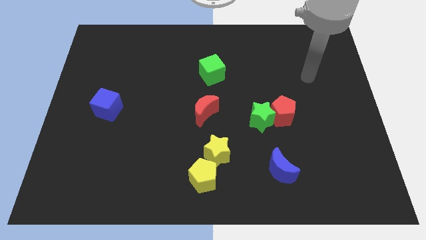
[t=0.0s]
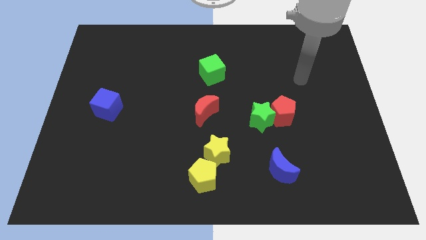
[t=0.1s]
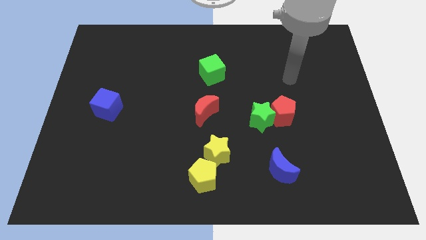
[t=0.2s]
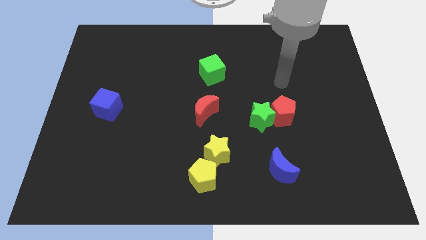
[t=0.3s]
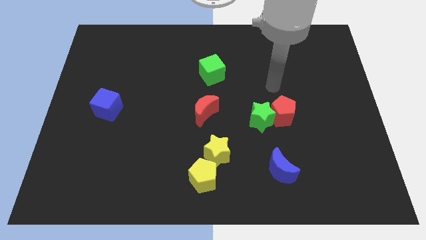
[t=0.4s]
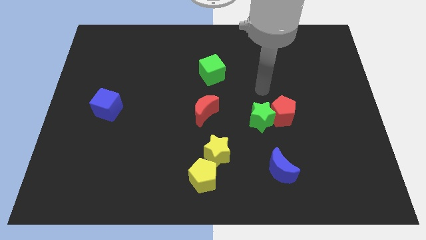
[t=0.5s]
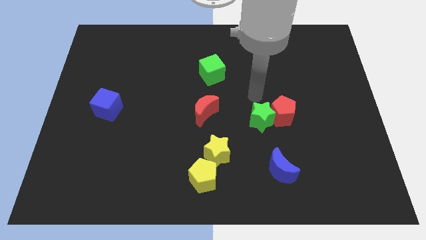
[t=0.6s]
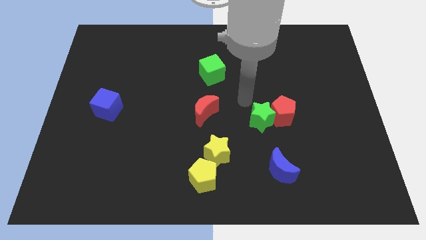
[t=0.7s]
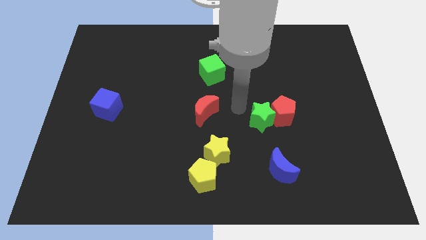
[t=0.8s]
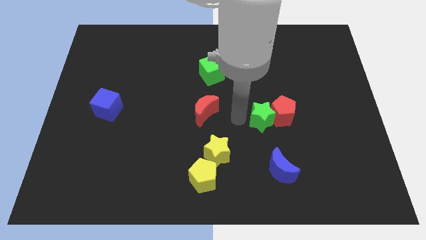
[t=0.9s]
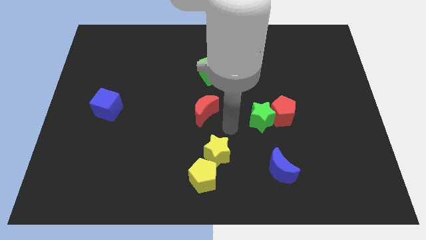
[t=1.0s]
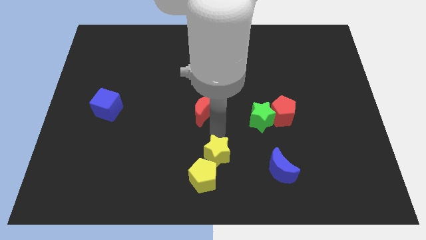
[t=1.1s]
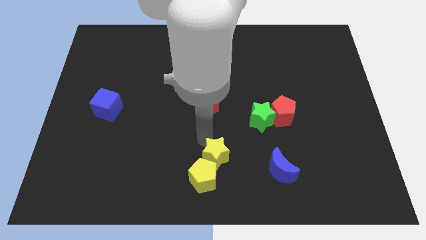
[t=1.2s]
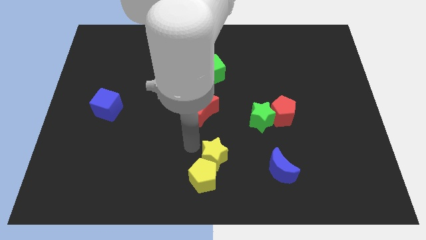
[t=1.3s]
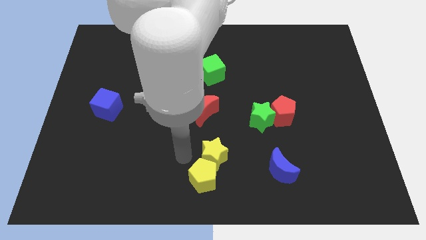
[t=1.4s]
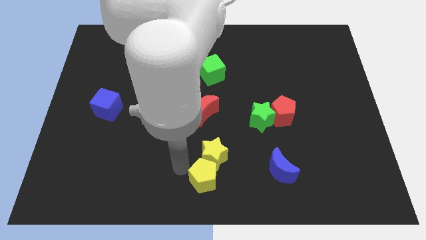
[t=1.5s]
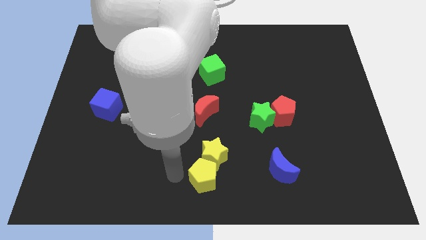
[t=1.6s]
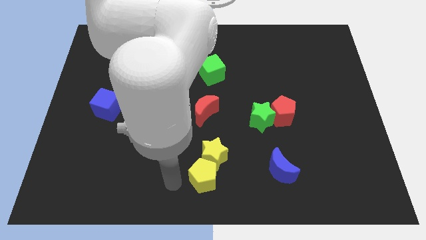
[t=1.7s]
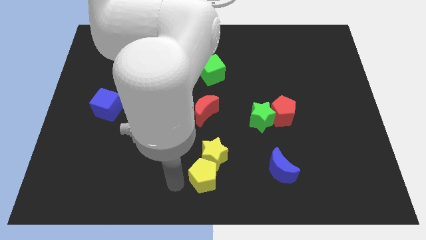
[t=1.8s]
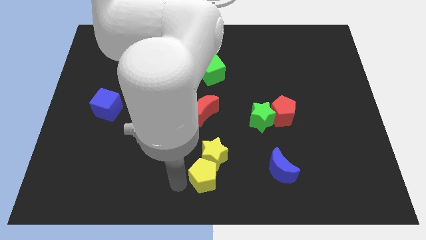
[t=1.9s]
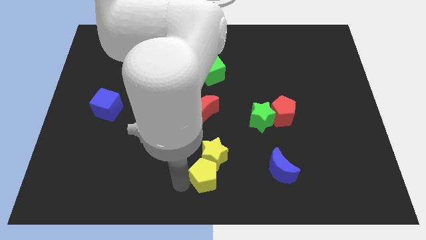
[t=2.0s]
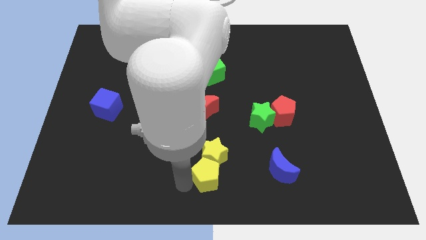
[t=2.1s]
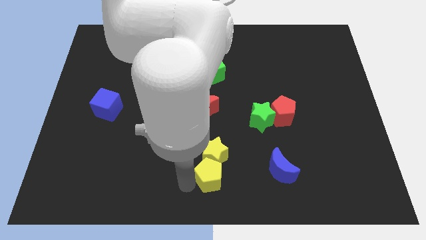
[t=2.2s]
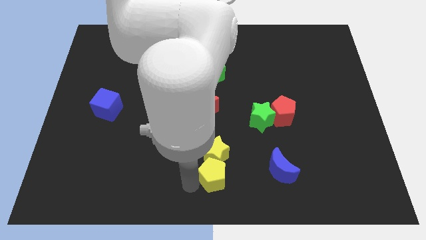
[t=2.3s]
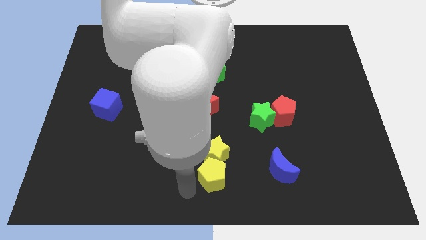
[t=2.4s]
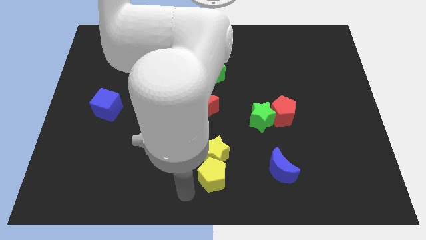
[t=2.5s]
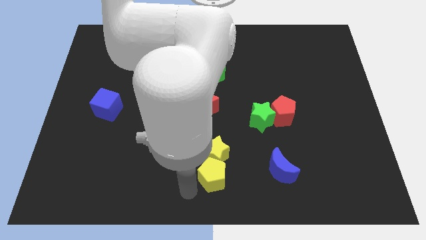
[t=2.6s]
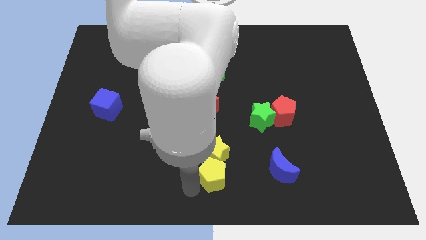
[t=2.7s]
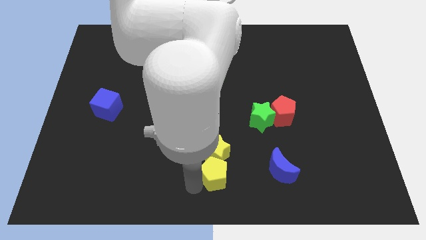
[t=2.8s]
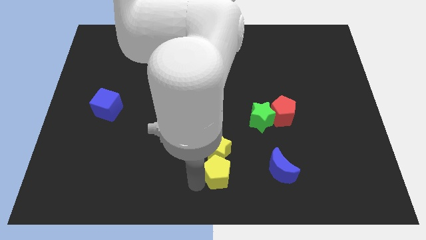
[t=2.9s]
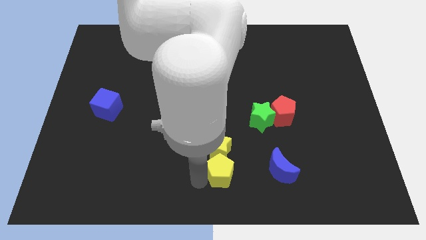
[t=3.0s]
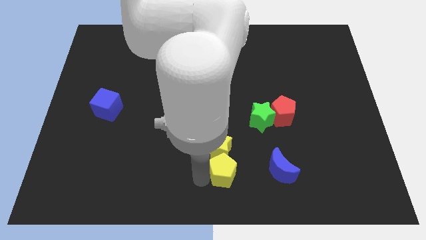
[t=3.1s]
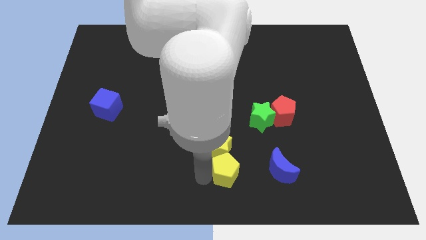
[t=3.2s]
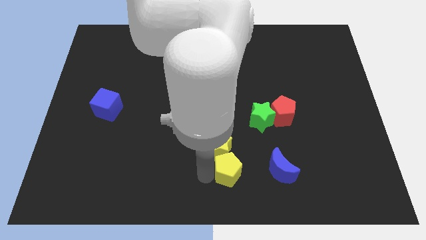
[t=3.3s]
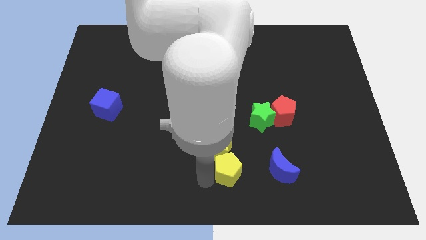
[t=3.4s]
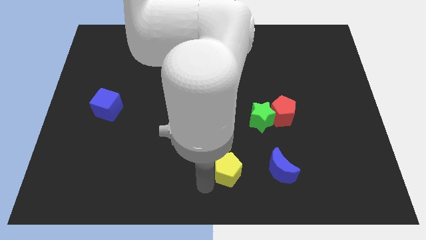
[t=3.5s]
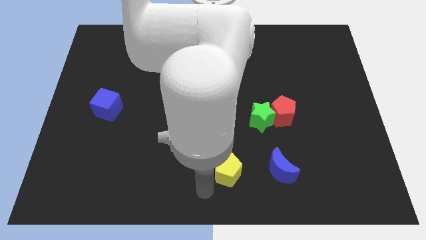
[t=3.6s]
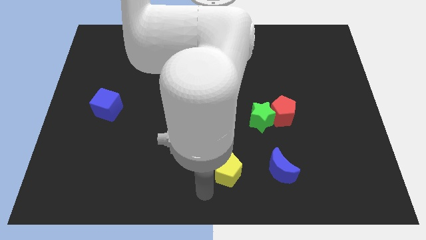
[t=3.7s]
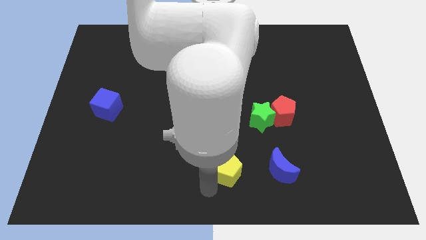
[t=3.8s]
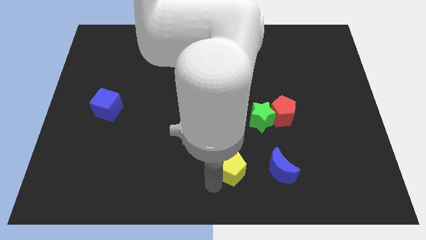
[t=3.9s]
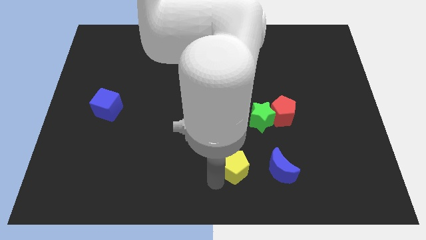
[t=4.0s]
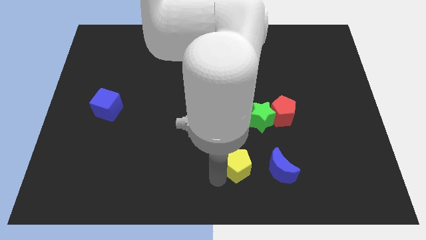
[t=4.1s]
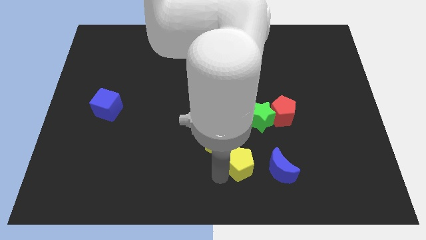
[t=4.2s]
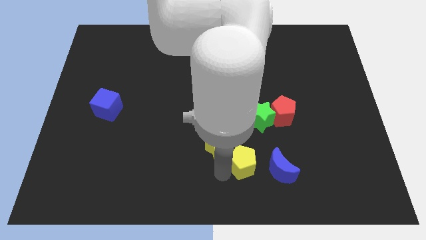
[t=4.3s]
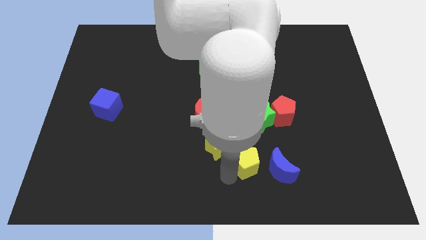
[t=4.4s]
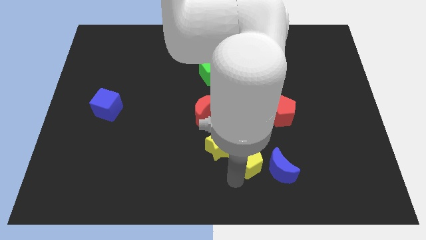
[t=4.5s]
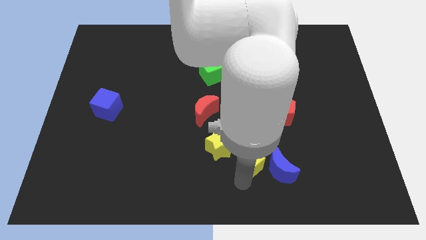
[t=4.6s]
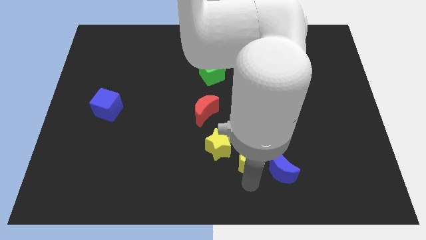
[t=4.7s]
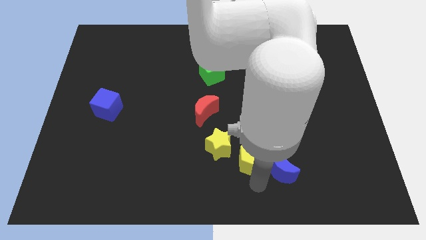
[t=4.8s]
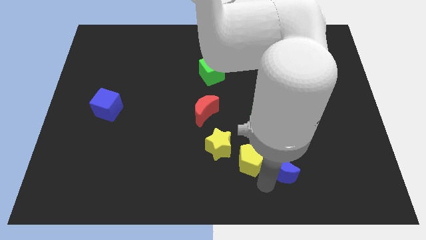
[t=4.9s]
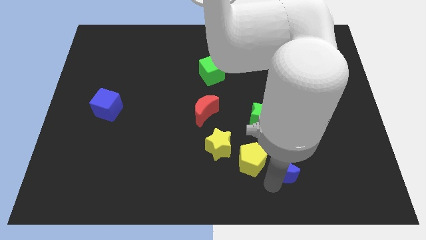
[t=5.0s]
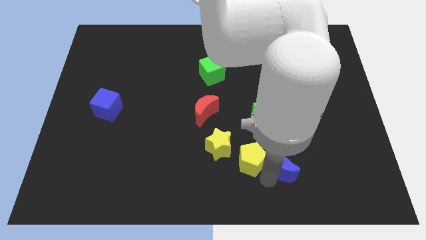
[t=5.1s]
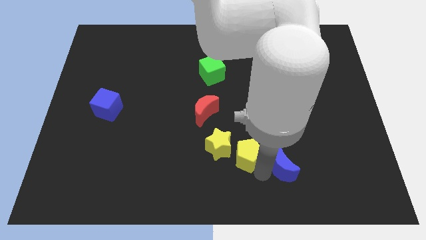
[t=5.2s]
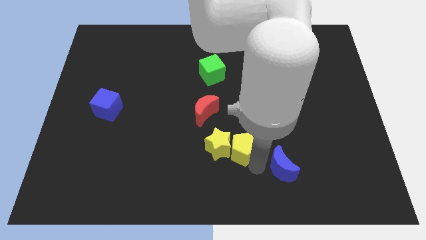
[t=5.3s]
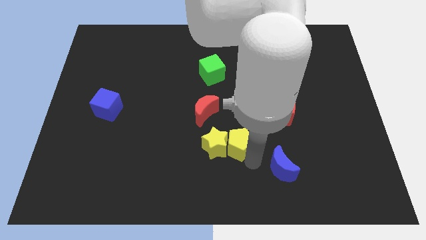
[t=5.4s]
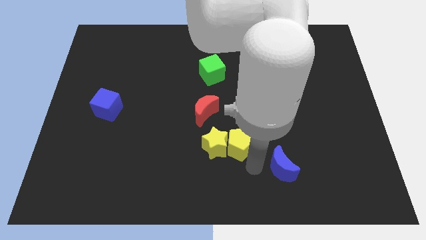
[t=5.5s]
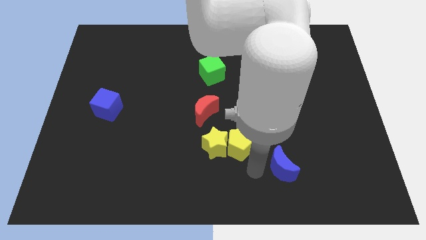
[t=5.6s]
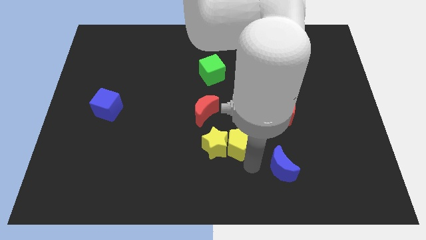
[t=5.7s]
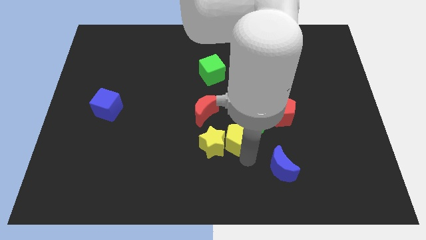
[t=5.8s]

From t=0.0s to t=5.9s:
slide the yellow pentagon to the center

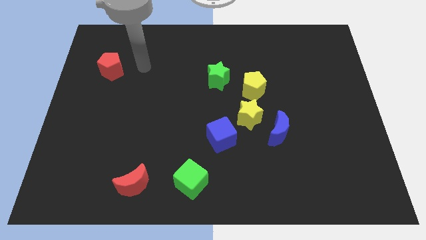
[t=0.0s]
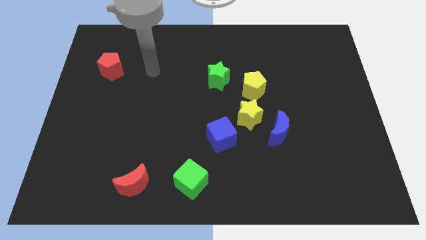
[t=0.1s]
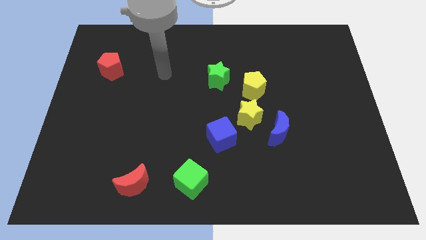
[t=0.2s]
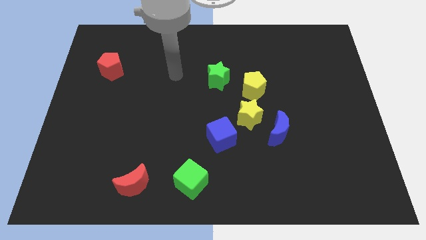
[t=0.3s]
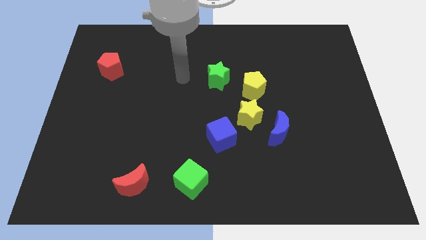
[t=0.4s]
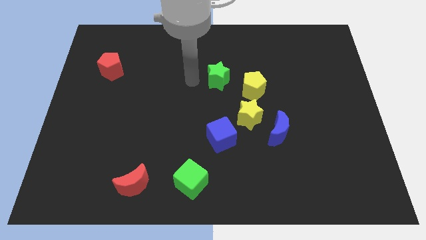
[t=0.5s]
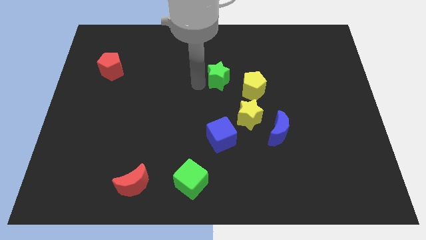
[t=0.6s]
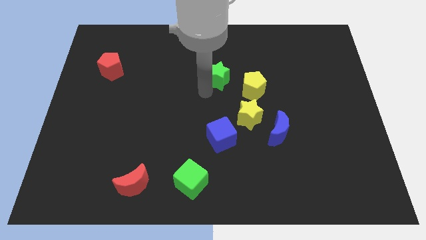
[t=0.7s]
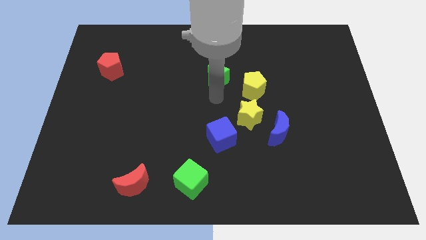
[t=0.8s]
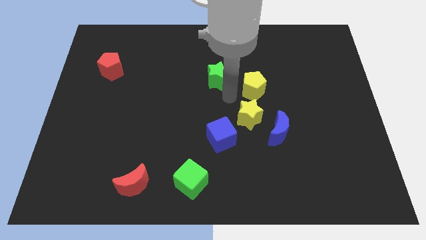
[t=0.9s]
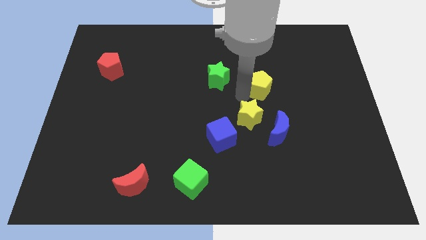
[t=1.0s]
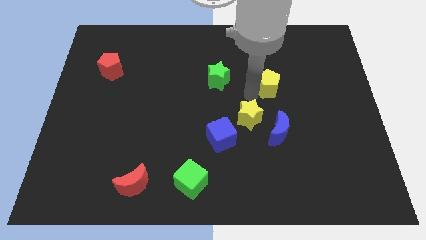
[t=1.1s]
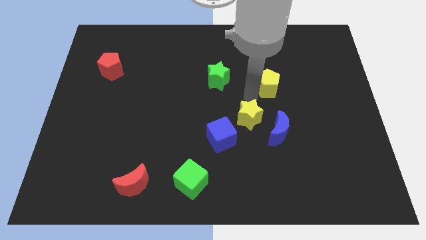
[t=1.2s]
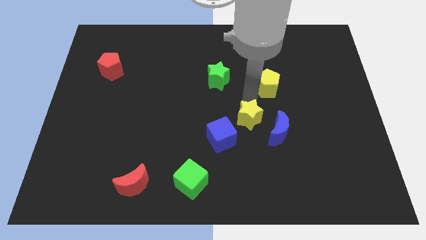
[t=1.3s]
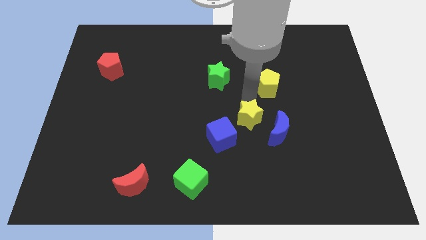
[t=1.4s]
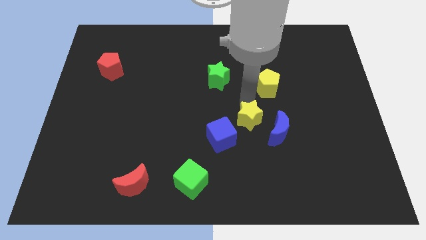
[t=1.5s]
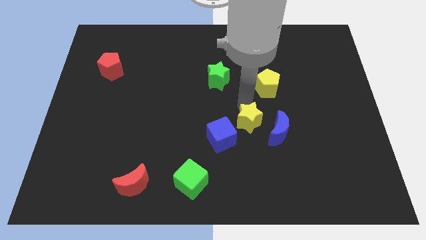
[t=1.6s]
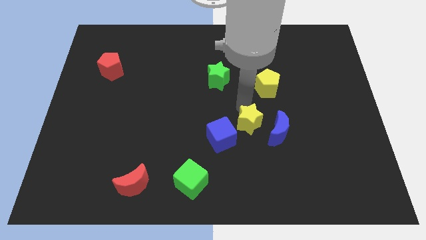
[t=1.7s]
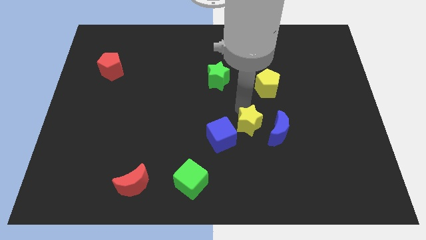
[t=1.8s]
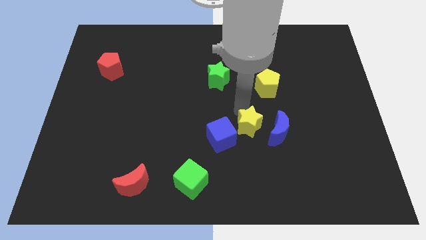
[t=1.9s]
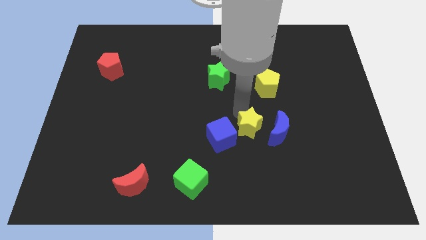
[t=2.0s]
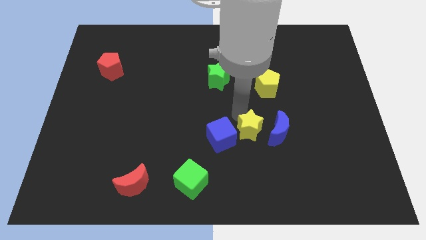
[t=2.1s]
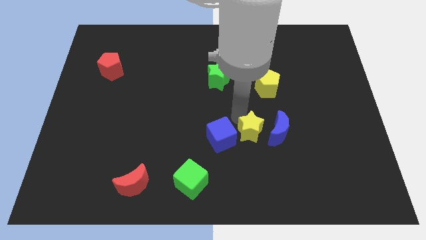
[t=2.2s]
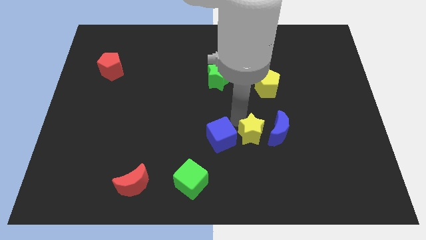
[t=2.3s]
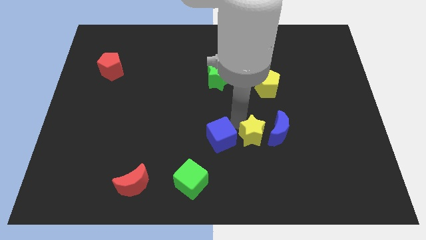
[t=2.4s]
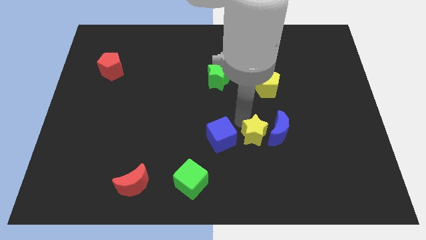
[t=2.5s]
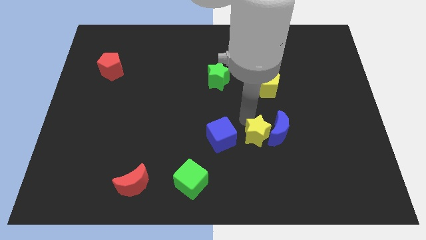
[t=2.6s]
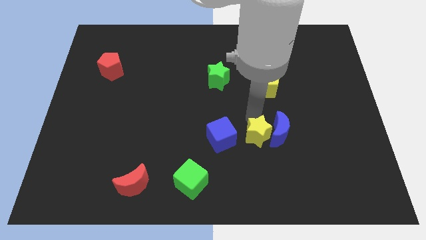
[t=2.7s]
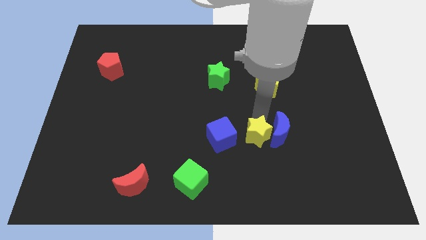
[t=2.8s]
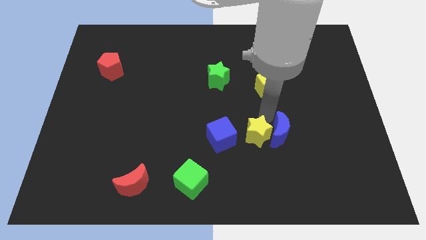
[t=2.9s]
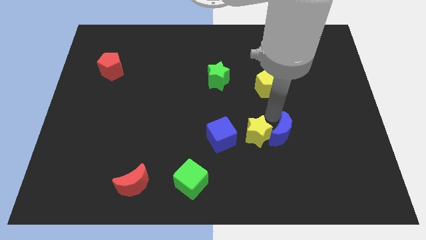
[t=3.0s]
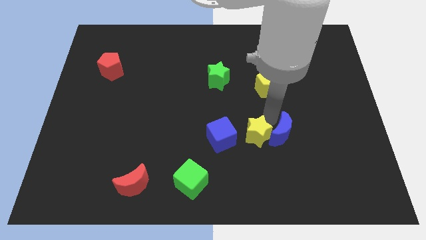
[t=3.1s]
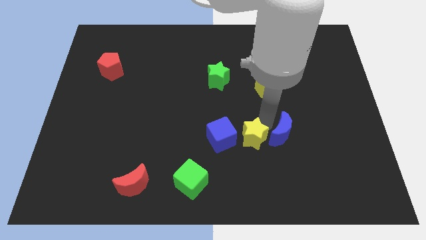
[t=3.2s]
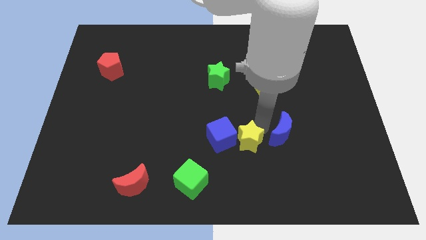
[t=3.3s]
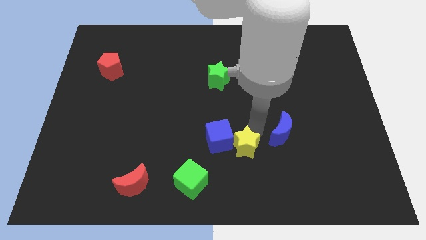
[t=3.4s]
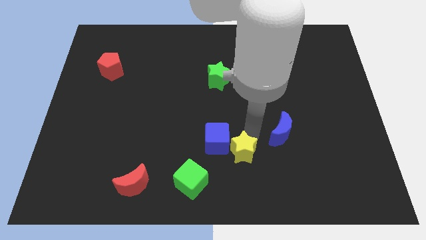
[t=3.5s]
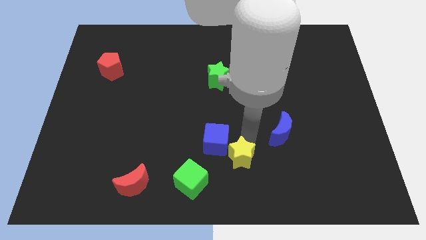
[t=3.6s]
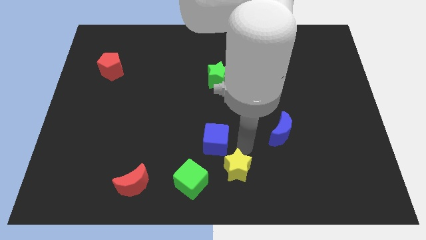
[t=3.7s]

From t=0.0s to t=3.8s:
put the yellow star to the bottom side
